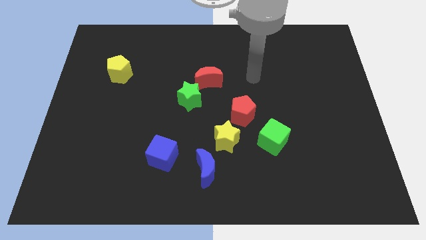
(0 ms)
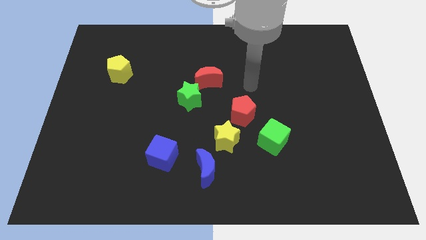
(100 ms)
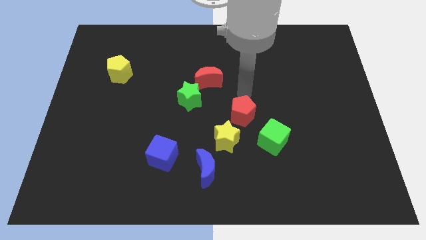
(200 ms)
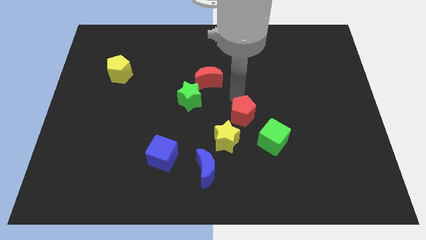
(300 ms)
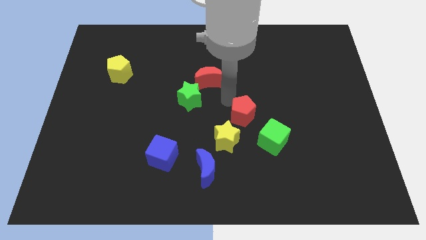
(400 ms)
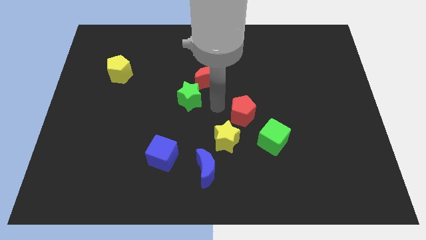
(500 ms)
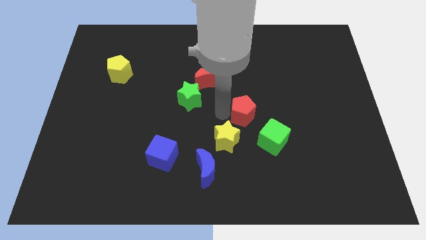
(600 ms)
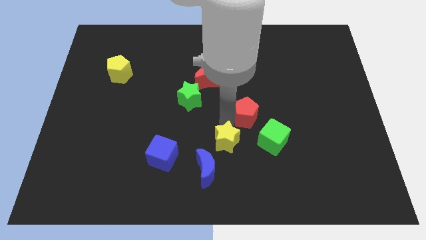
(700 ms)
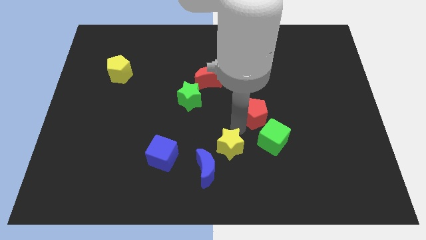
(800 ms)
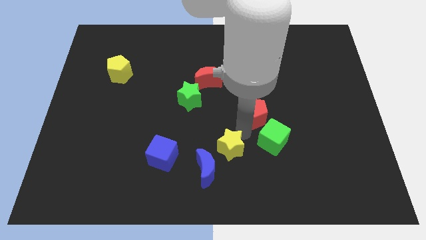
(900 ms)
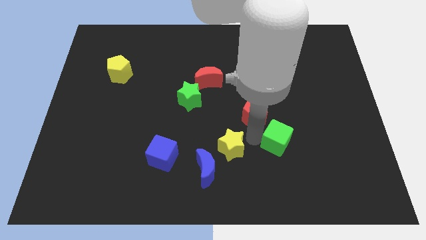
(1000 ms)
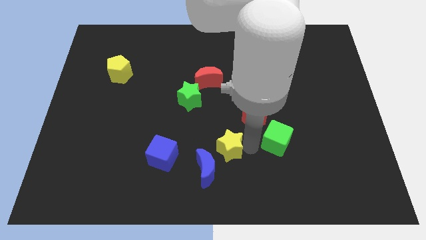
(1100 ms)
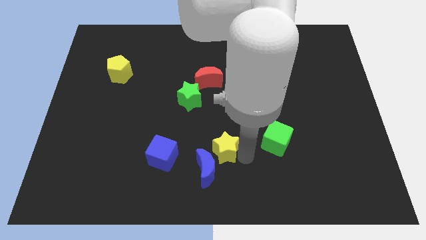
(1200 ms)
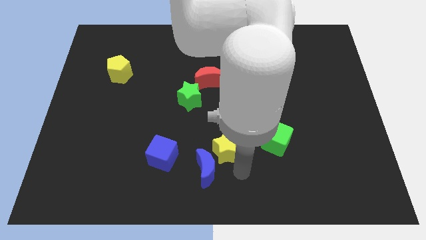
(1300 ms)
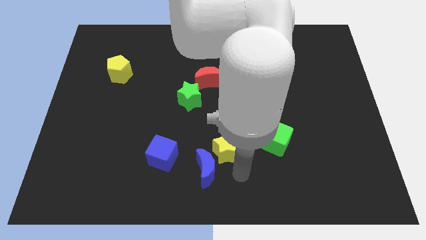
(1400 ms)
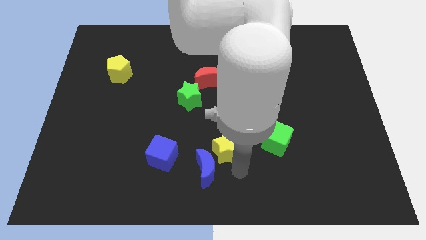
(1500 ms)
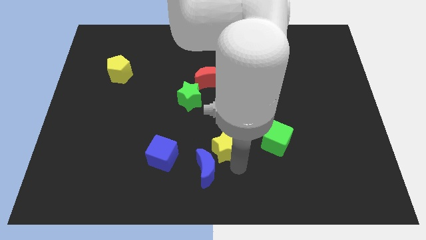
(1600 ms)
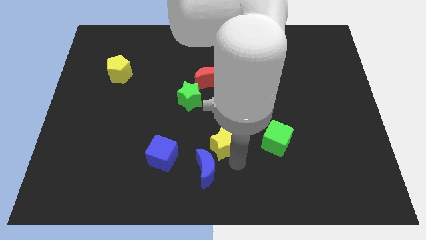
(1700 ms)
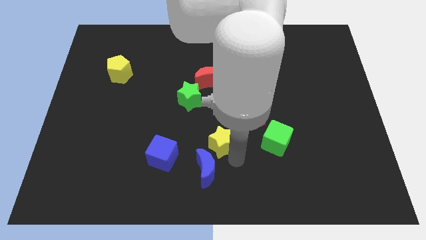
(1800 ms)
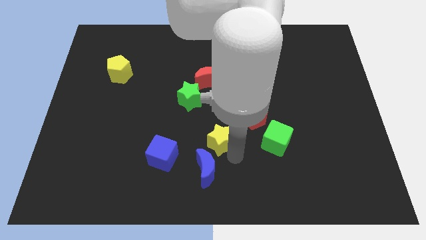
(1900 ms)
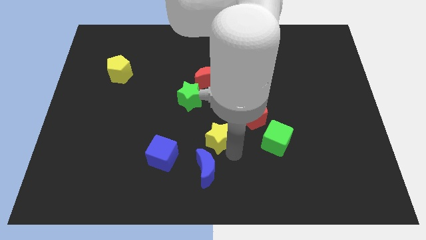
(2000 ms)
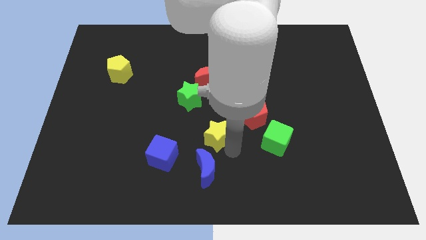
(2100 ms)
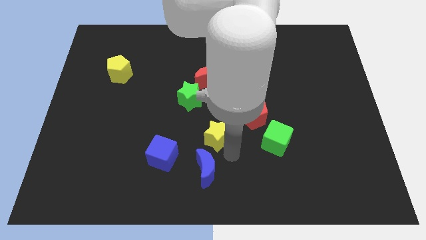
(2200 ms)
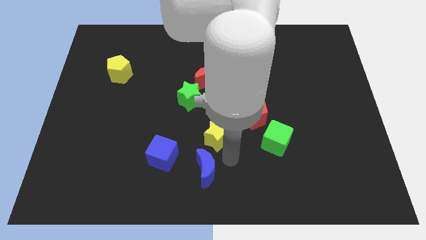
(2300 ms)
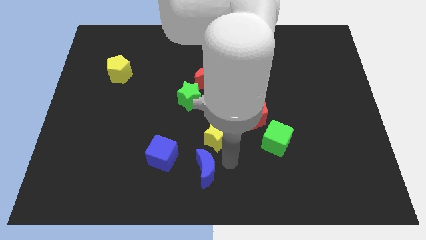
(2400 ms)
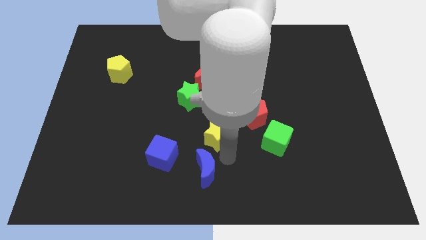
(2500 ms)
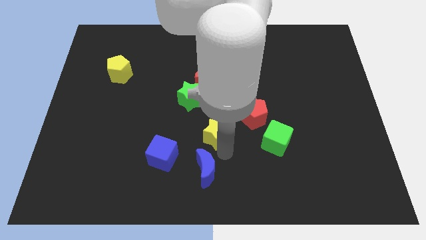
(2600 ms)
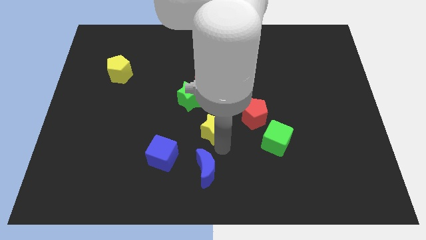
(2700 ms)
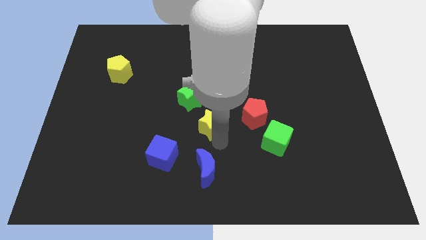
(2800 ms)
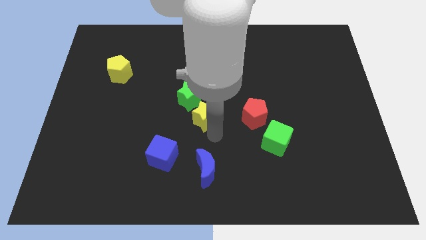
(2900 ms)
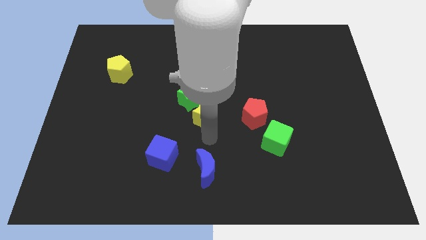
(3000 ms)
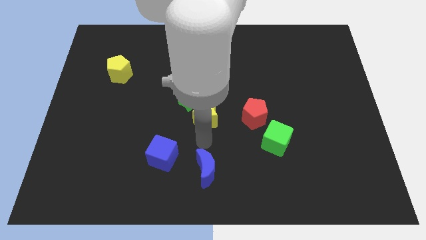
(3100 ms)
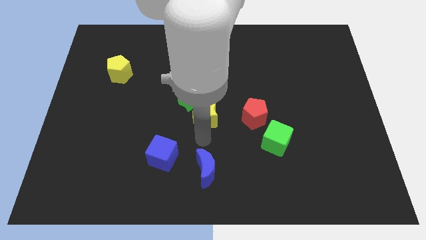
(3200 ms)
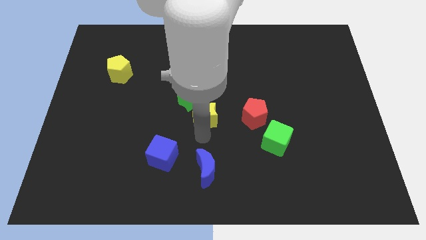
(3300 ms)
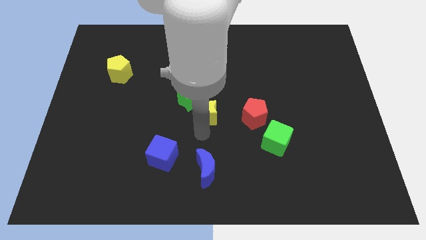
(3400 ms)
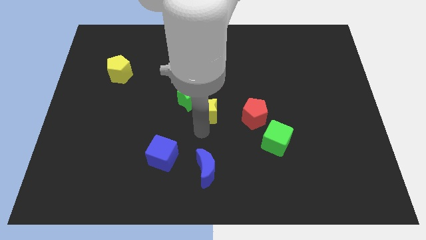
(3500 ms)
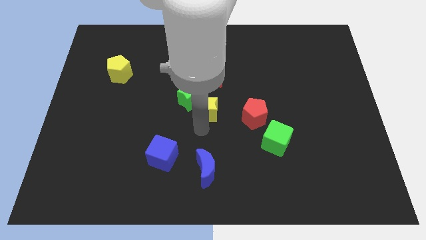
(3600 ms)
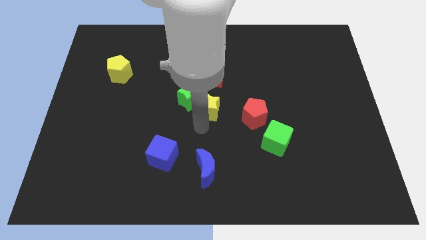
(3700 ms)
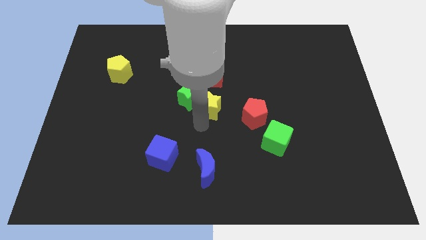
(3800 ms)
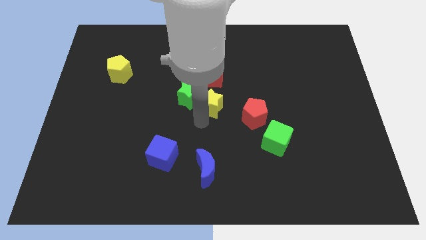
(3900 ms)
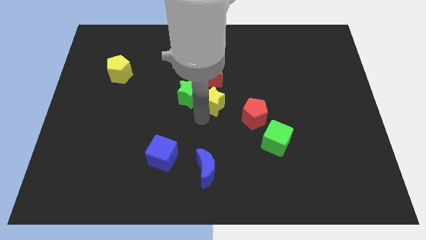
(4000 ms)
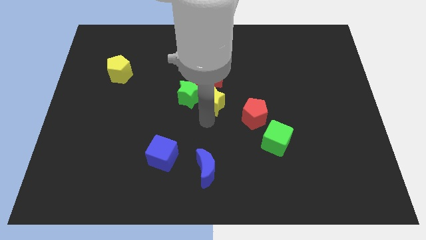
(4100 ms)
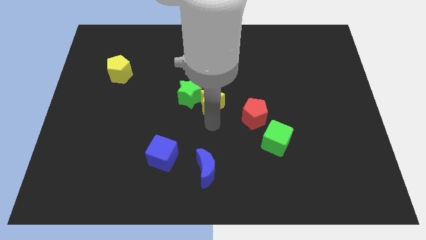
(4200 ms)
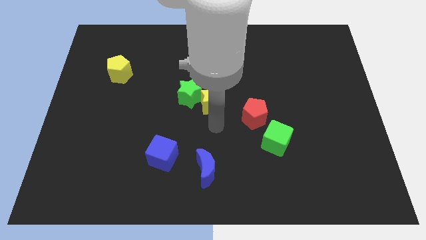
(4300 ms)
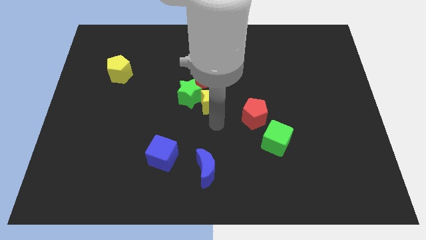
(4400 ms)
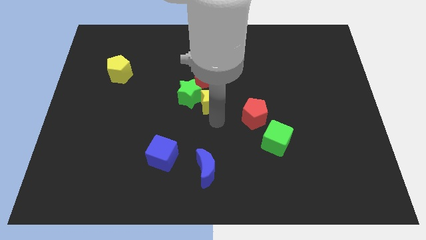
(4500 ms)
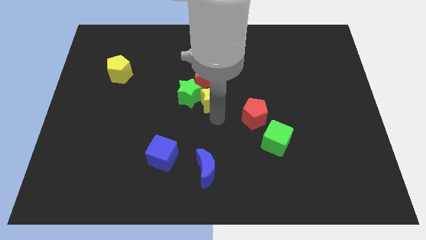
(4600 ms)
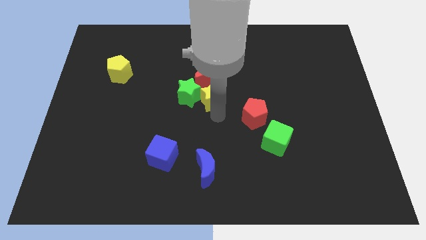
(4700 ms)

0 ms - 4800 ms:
put the yellow star to the red moon

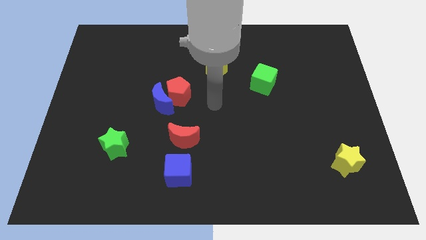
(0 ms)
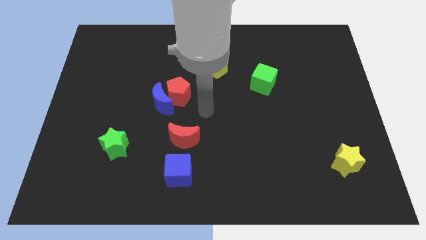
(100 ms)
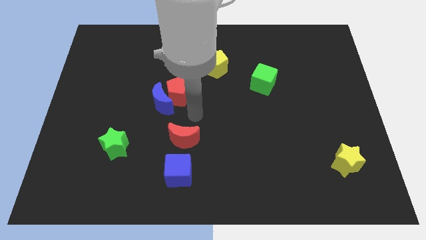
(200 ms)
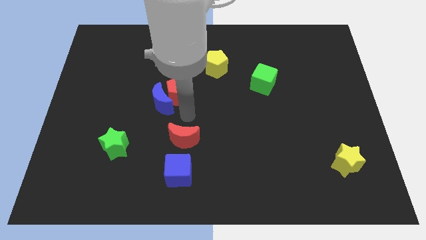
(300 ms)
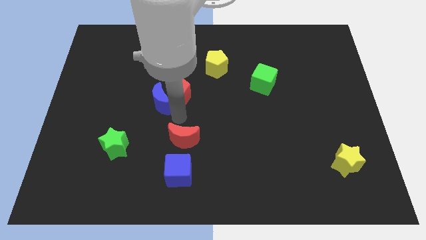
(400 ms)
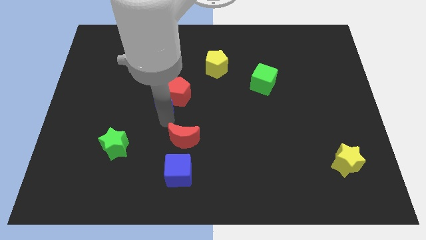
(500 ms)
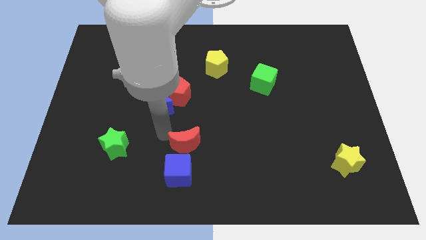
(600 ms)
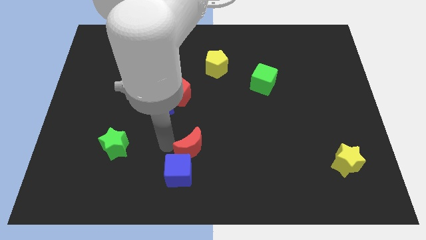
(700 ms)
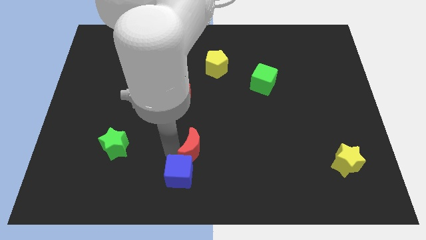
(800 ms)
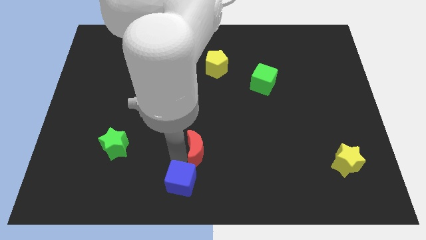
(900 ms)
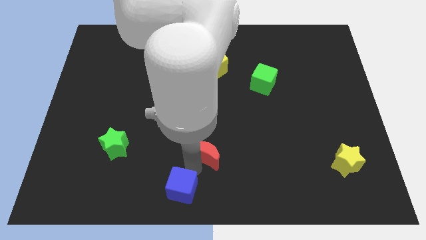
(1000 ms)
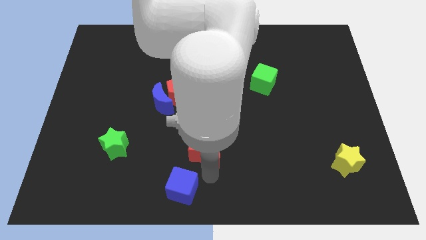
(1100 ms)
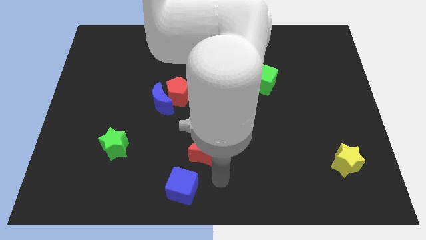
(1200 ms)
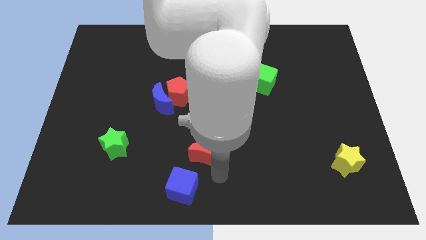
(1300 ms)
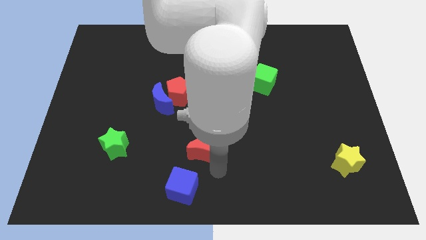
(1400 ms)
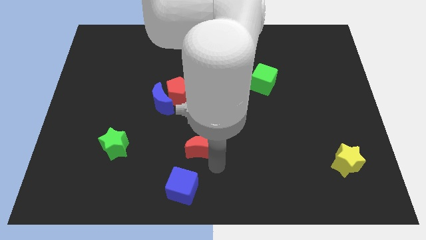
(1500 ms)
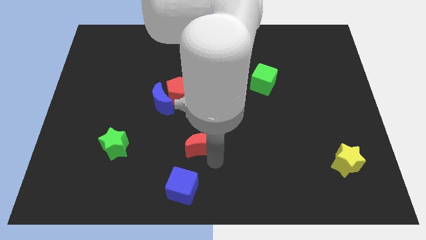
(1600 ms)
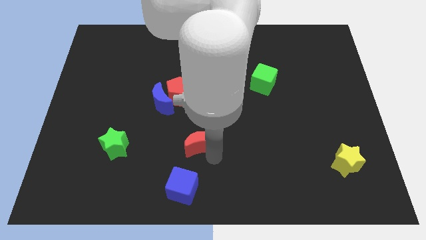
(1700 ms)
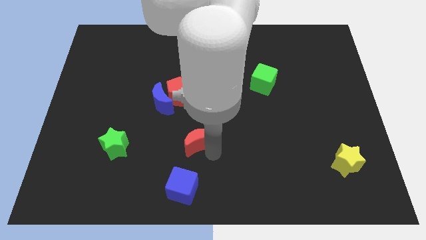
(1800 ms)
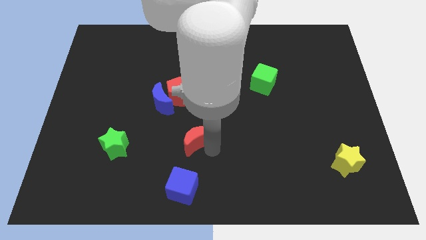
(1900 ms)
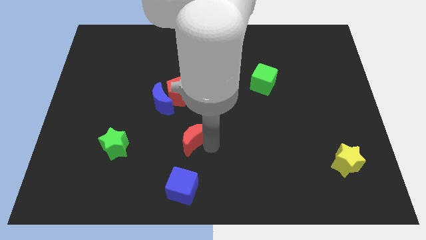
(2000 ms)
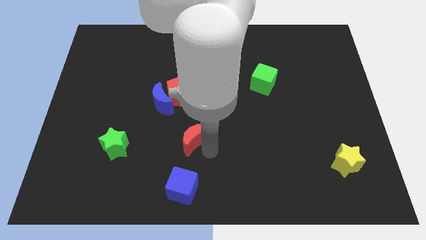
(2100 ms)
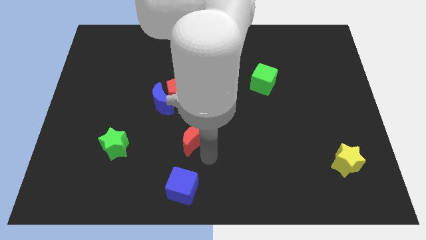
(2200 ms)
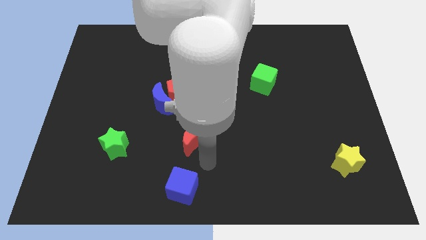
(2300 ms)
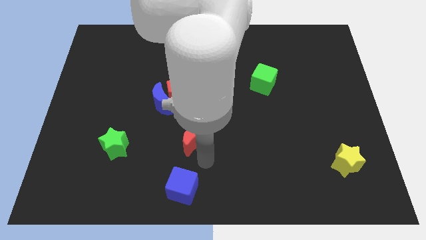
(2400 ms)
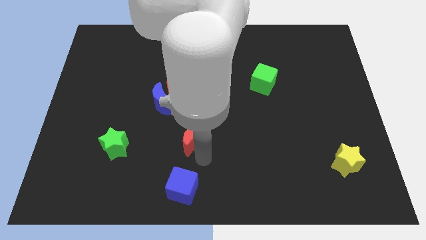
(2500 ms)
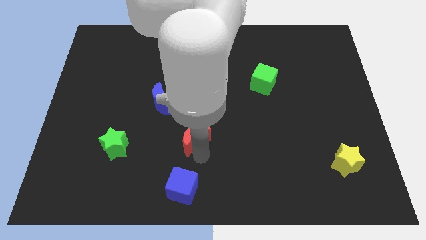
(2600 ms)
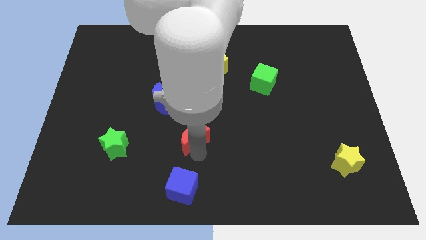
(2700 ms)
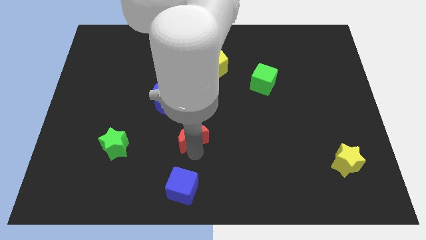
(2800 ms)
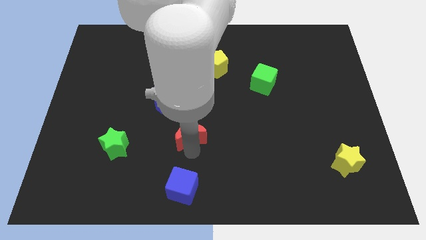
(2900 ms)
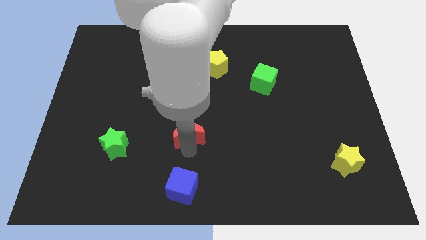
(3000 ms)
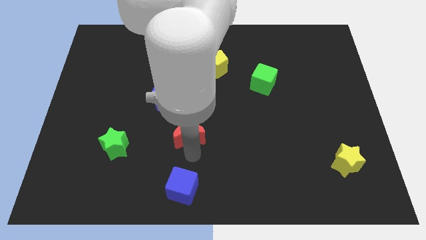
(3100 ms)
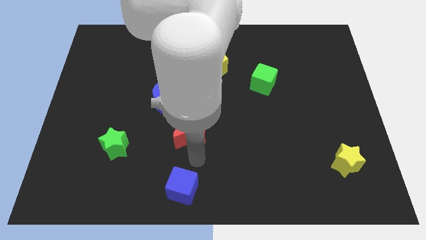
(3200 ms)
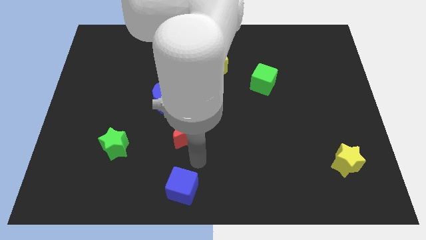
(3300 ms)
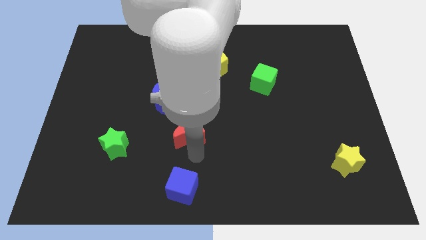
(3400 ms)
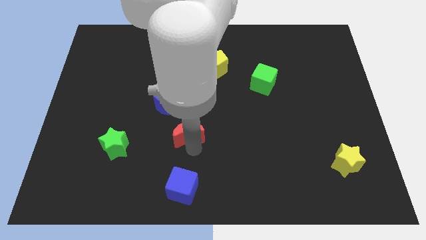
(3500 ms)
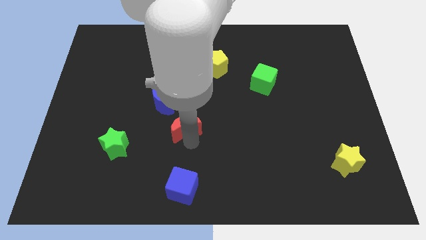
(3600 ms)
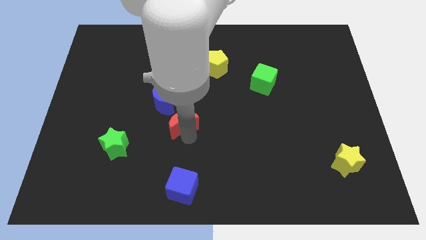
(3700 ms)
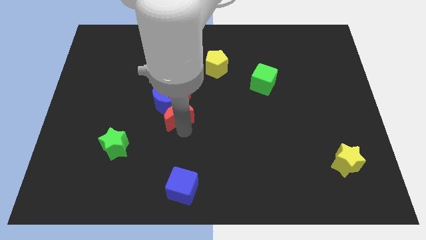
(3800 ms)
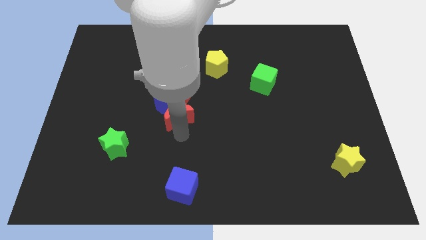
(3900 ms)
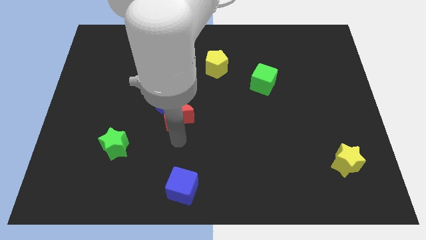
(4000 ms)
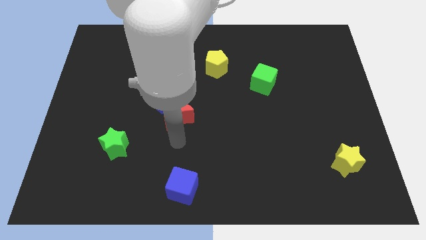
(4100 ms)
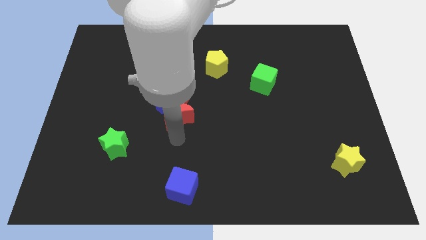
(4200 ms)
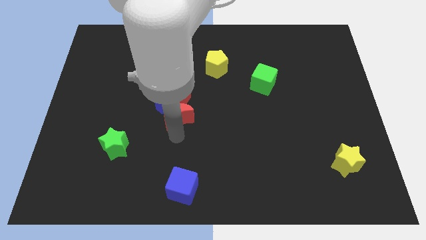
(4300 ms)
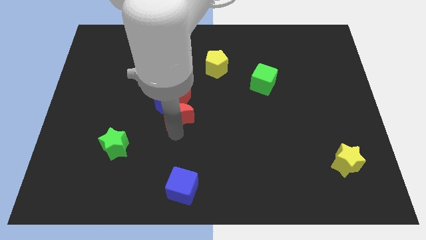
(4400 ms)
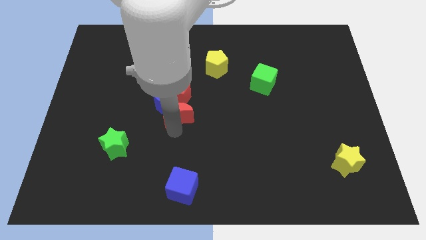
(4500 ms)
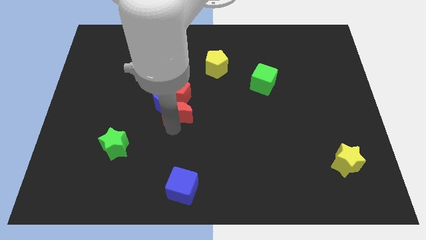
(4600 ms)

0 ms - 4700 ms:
slide the red moon next to the red pentagon
